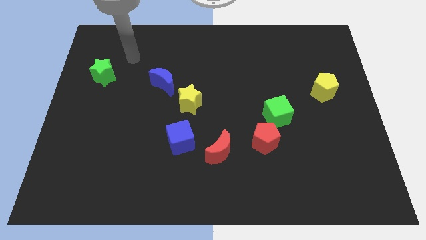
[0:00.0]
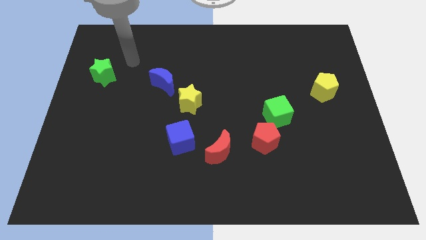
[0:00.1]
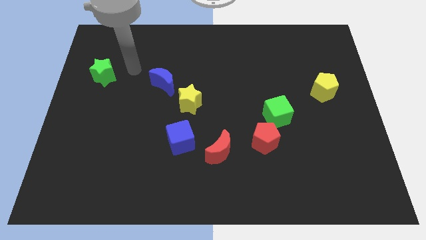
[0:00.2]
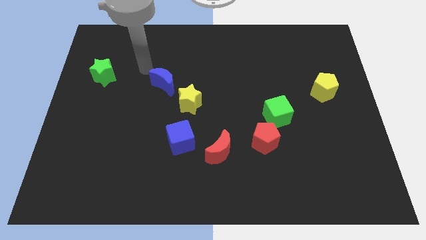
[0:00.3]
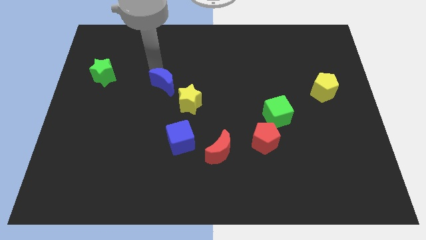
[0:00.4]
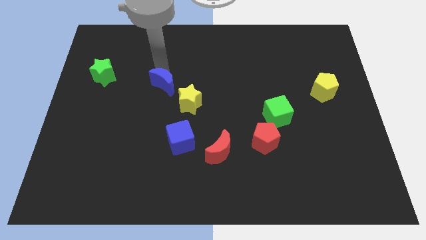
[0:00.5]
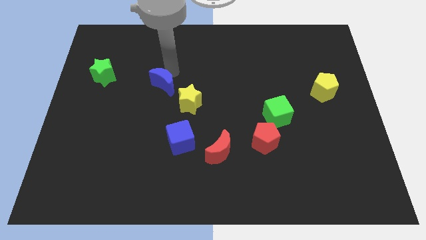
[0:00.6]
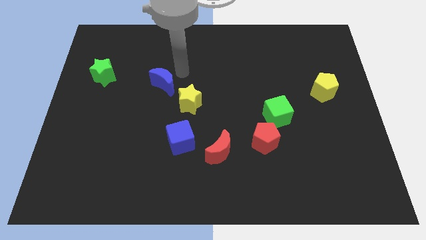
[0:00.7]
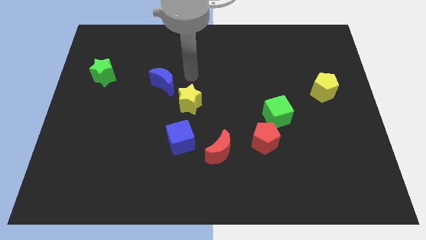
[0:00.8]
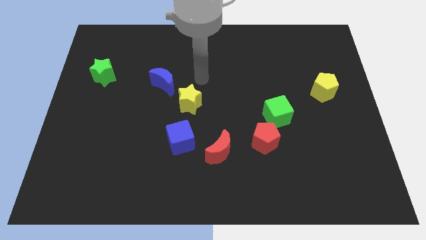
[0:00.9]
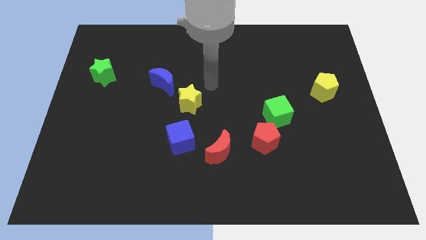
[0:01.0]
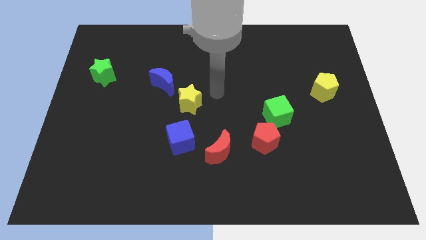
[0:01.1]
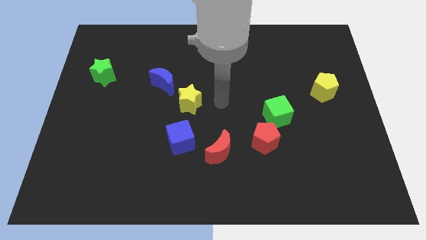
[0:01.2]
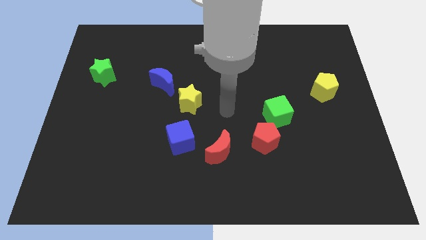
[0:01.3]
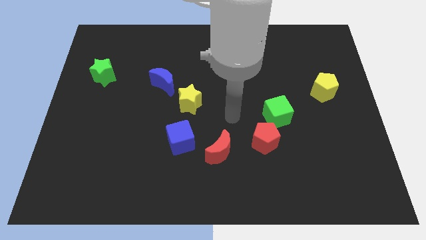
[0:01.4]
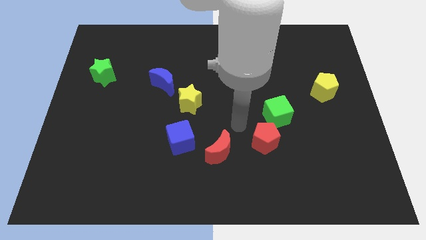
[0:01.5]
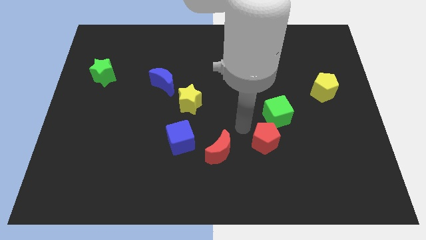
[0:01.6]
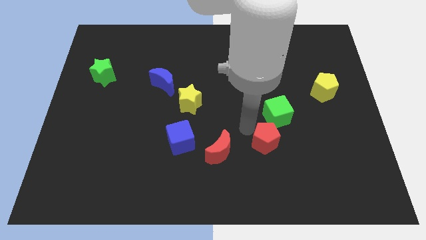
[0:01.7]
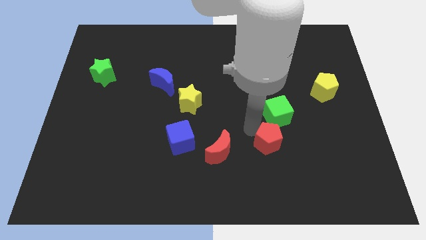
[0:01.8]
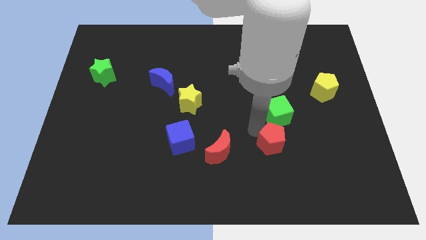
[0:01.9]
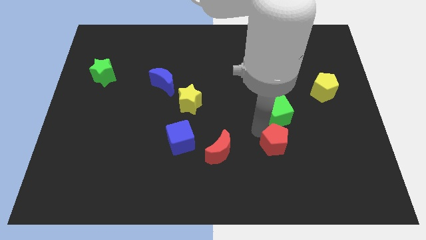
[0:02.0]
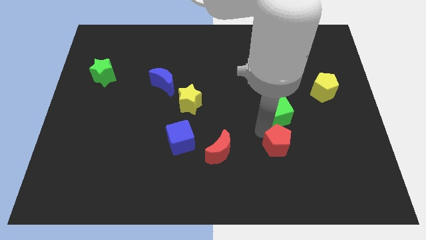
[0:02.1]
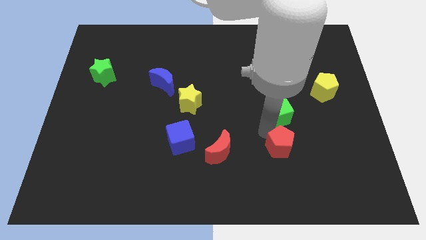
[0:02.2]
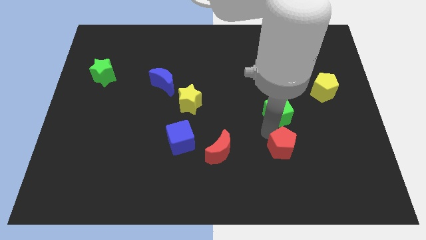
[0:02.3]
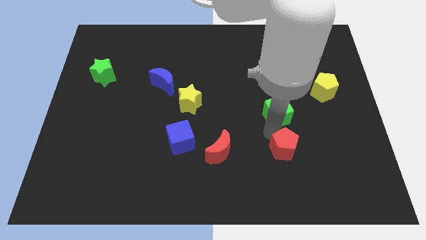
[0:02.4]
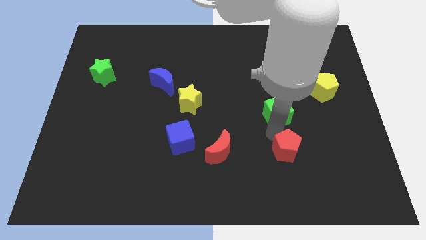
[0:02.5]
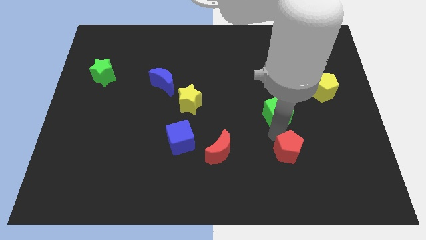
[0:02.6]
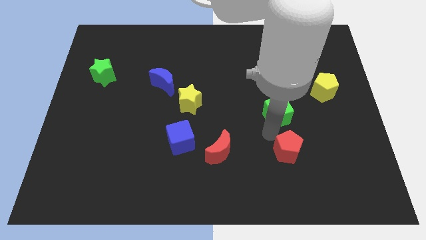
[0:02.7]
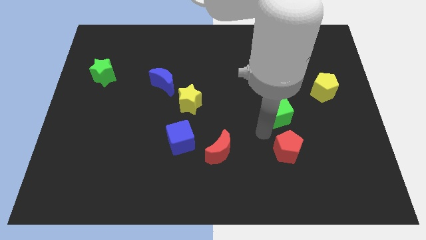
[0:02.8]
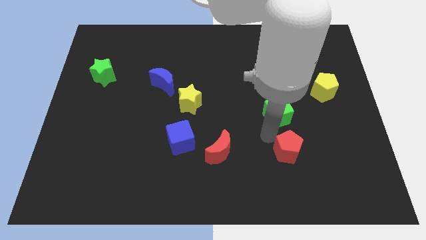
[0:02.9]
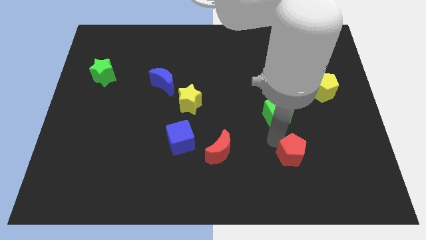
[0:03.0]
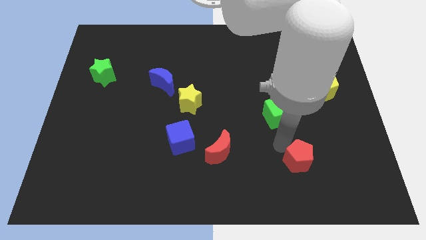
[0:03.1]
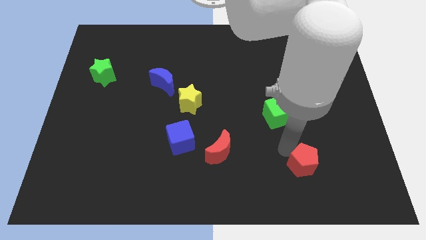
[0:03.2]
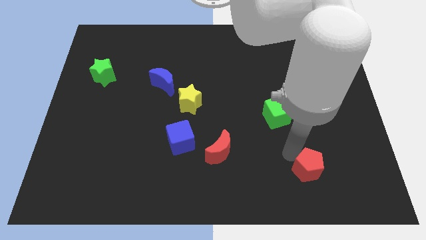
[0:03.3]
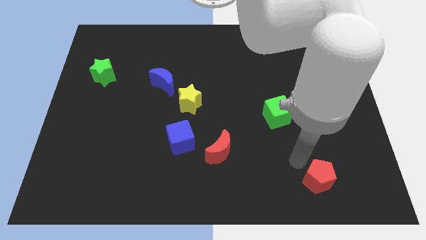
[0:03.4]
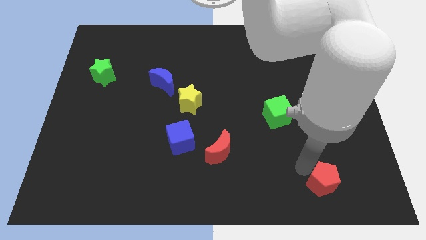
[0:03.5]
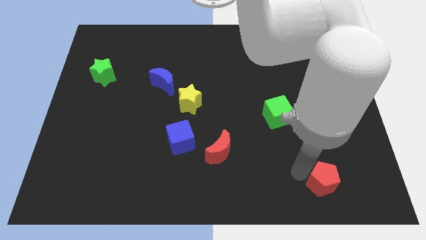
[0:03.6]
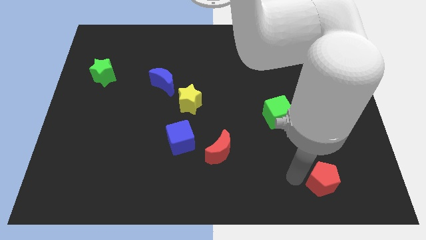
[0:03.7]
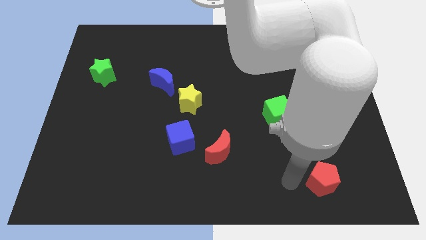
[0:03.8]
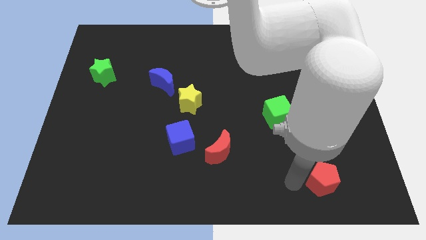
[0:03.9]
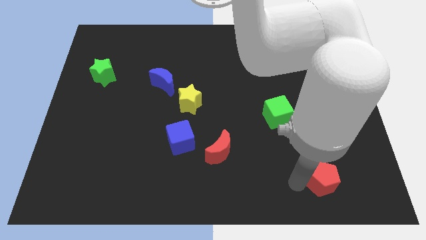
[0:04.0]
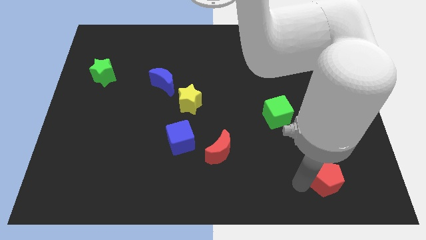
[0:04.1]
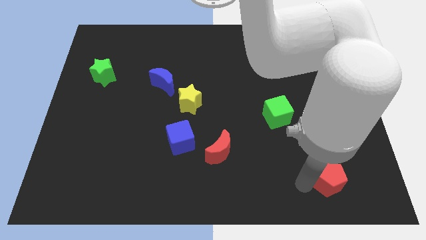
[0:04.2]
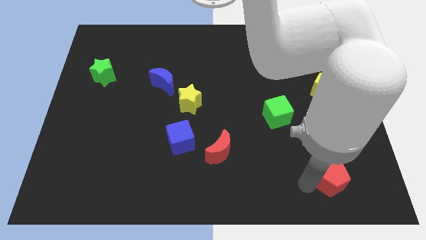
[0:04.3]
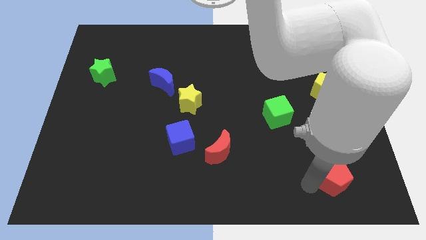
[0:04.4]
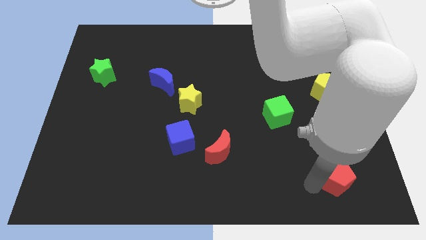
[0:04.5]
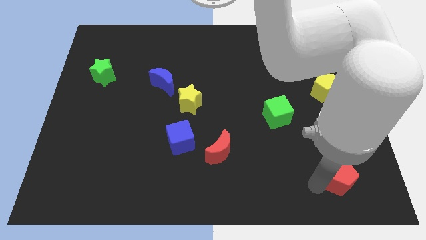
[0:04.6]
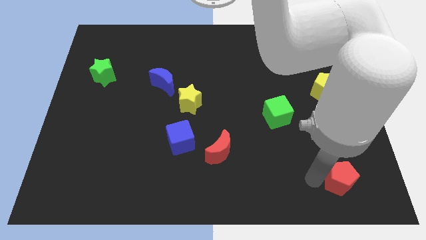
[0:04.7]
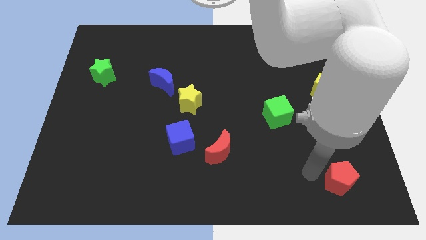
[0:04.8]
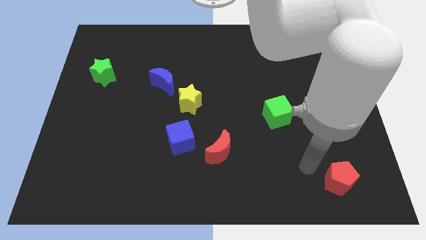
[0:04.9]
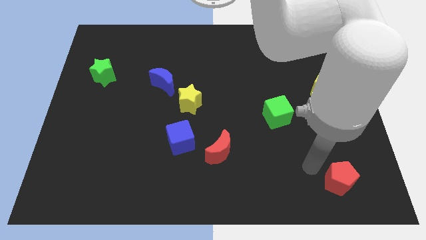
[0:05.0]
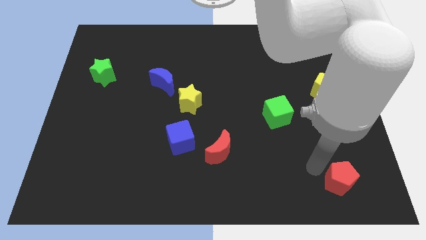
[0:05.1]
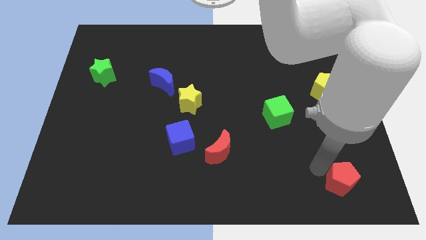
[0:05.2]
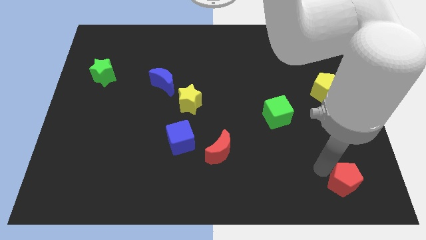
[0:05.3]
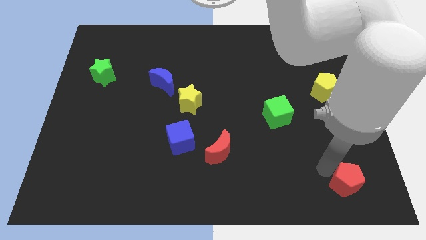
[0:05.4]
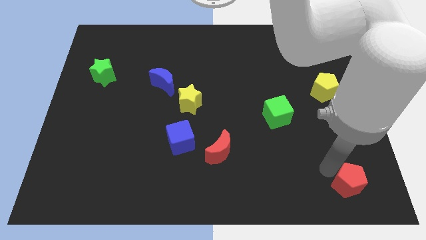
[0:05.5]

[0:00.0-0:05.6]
move the red pentagon to the bottom right of the board

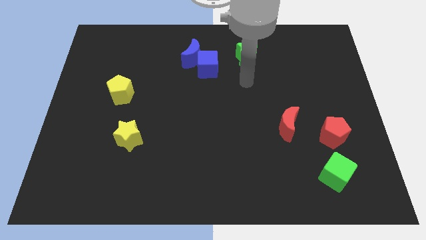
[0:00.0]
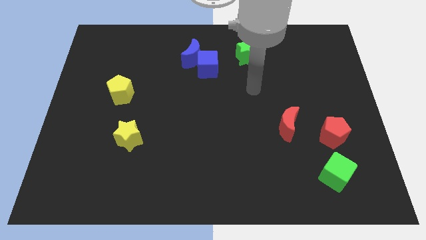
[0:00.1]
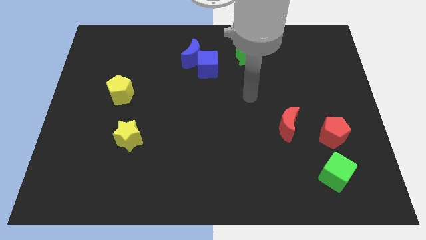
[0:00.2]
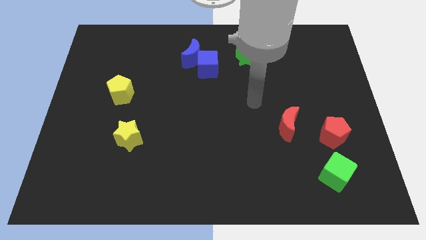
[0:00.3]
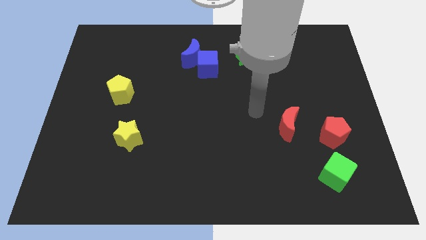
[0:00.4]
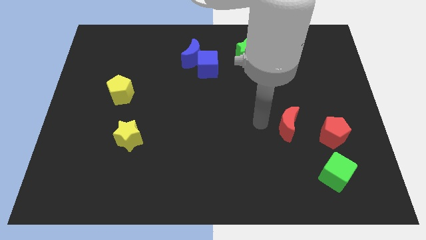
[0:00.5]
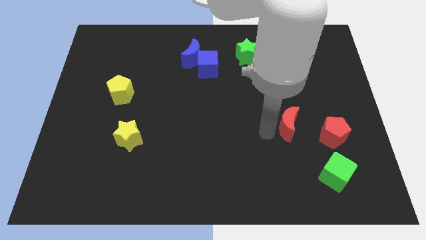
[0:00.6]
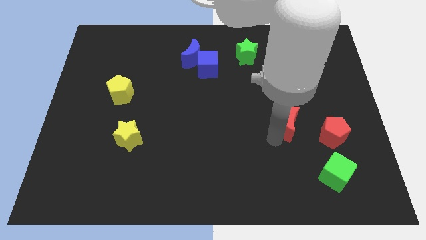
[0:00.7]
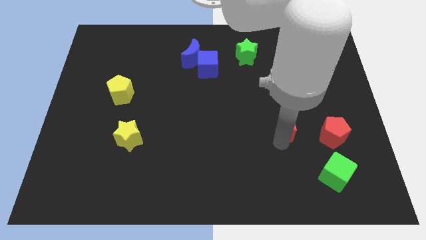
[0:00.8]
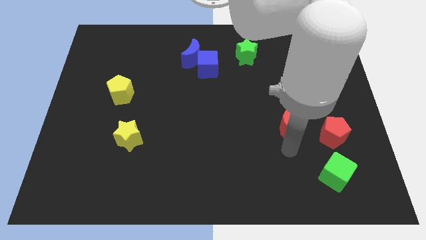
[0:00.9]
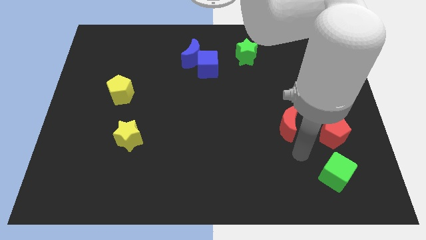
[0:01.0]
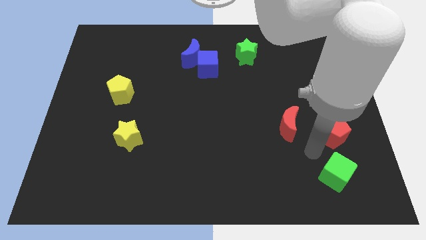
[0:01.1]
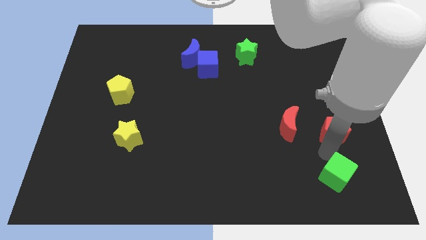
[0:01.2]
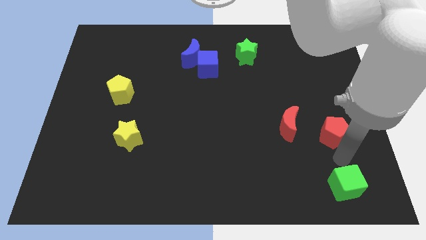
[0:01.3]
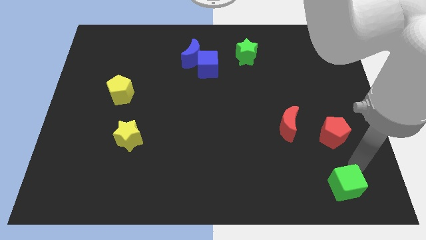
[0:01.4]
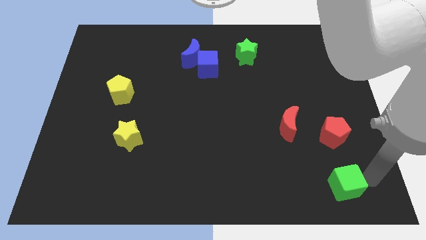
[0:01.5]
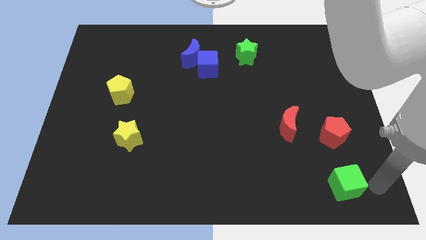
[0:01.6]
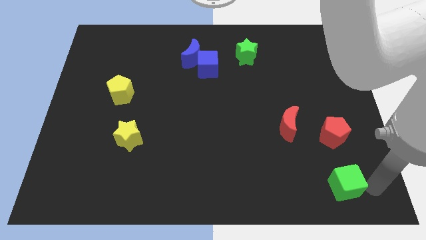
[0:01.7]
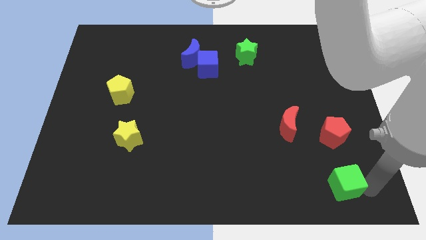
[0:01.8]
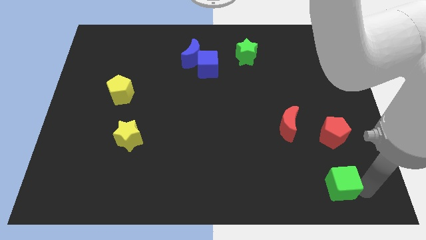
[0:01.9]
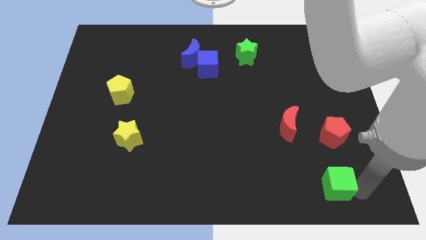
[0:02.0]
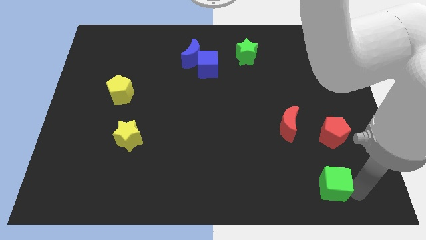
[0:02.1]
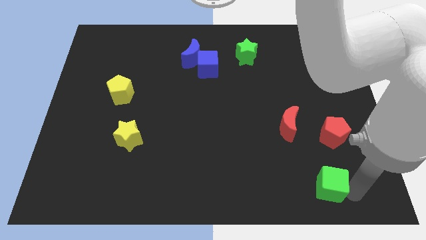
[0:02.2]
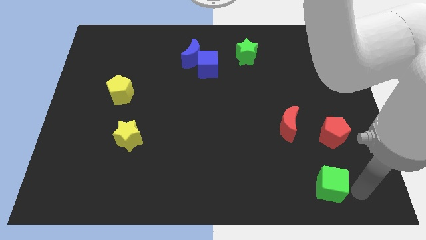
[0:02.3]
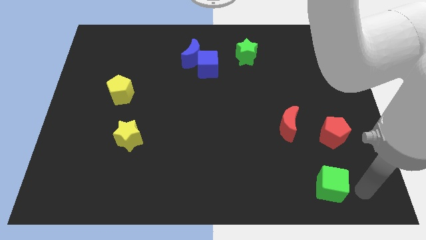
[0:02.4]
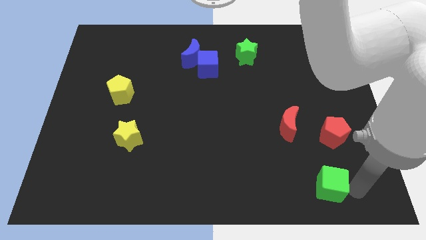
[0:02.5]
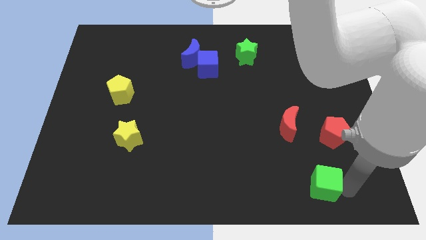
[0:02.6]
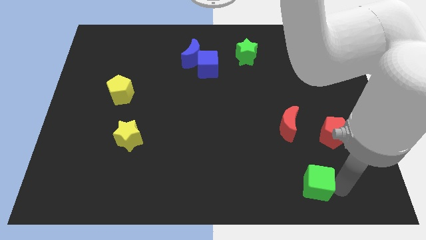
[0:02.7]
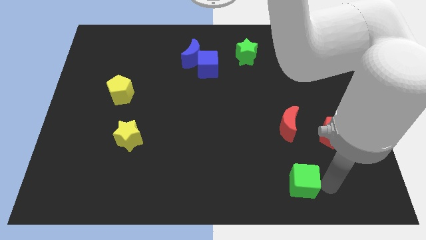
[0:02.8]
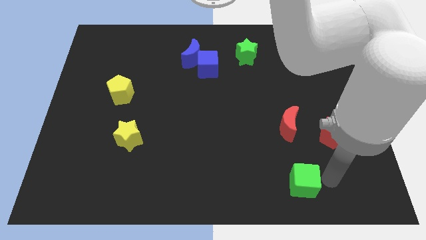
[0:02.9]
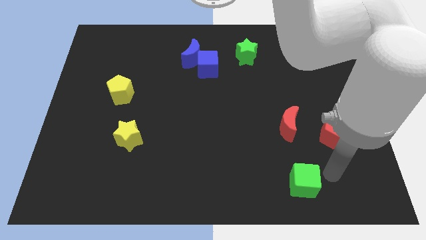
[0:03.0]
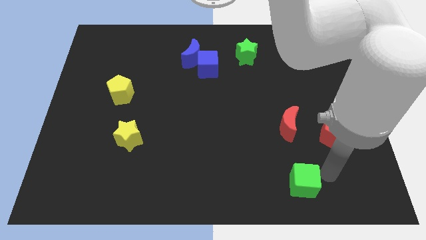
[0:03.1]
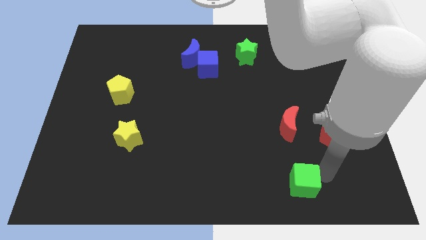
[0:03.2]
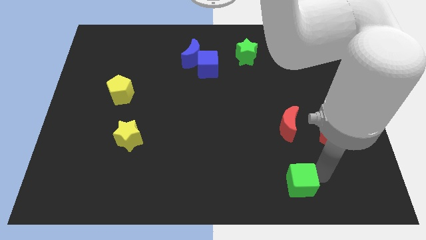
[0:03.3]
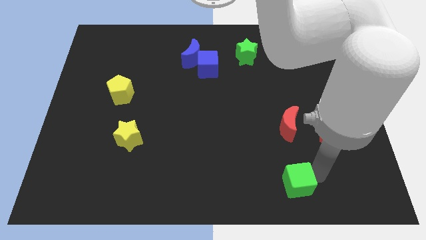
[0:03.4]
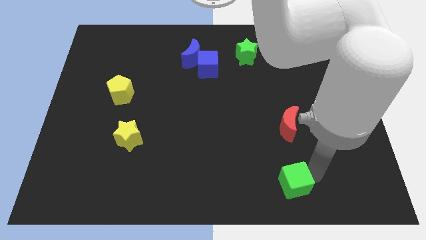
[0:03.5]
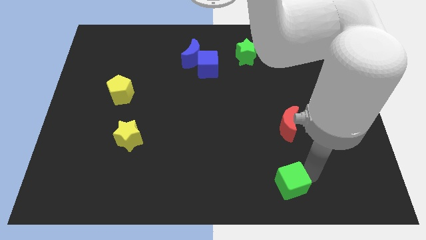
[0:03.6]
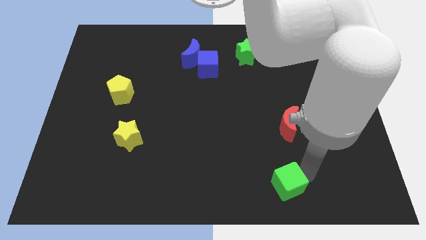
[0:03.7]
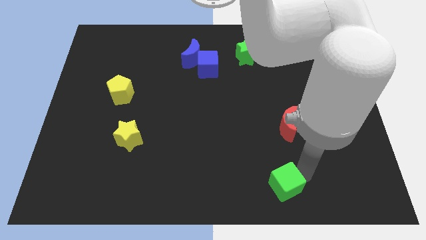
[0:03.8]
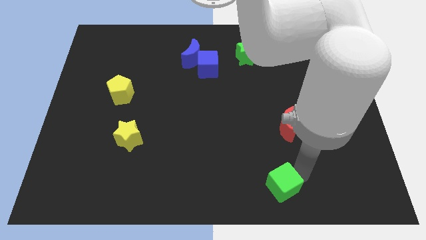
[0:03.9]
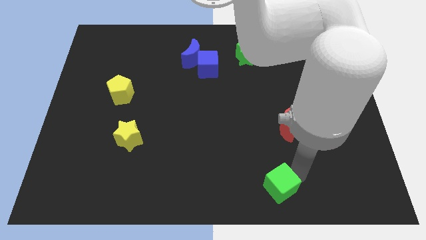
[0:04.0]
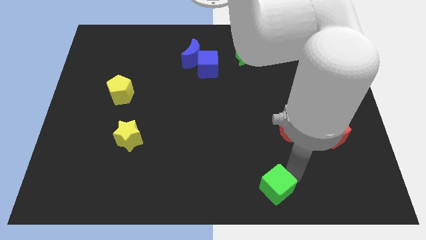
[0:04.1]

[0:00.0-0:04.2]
put the green cube to the bottom side
